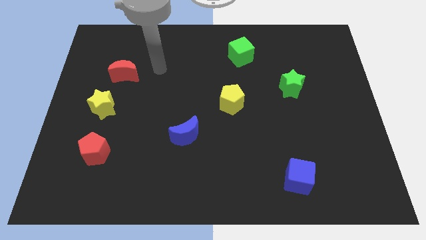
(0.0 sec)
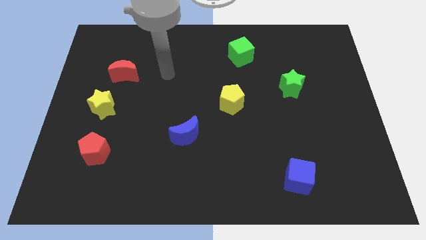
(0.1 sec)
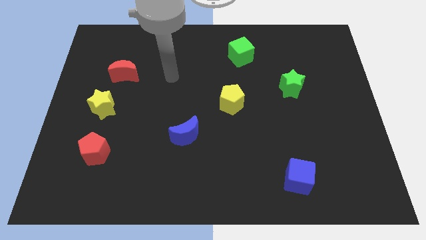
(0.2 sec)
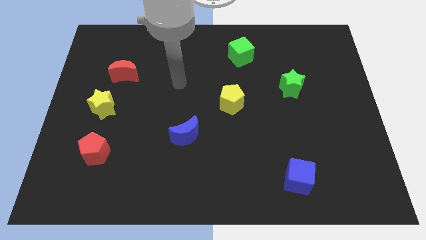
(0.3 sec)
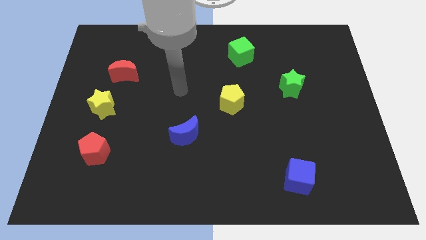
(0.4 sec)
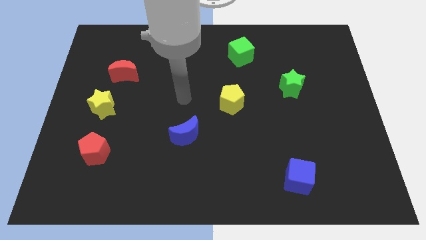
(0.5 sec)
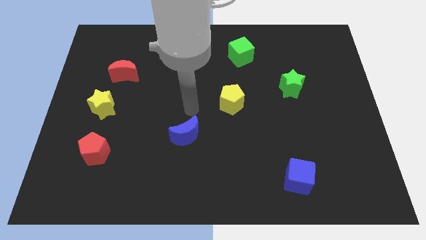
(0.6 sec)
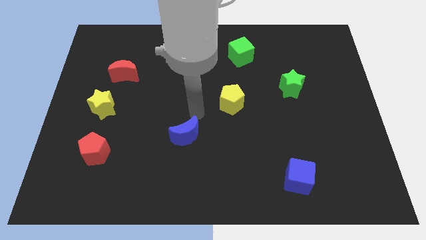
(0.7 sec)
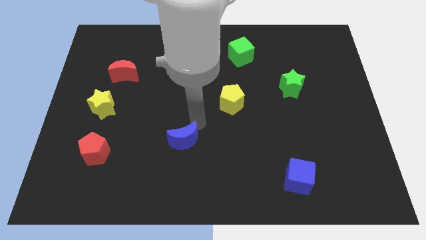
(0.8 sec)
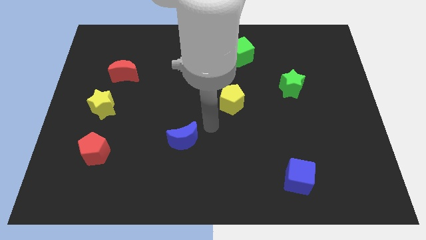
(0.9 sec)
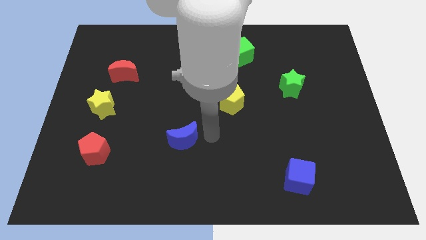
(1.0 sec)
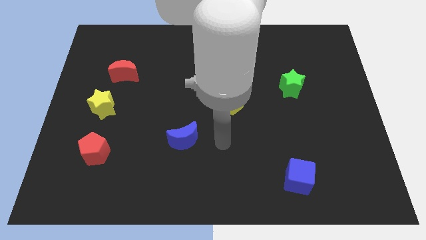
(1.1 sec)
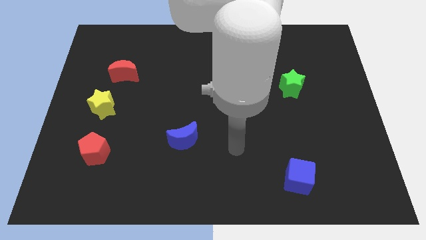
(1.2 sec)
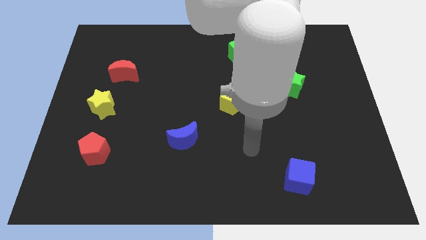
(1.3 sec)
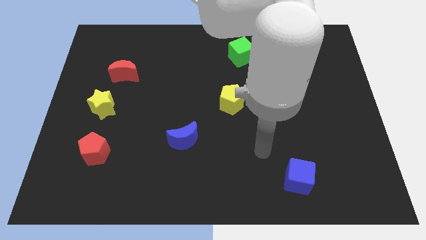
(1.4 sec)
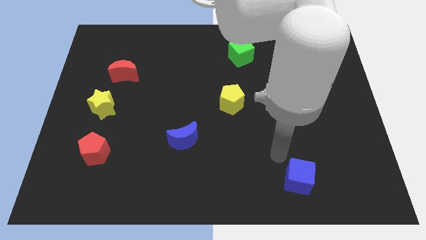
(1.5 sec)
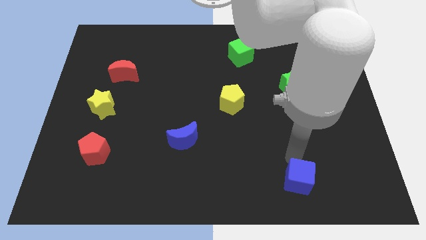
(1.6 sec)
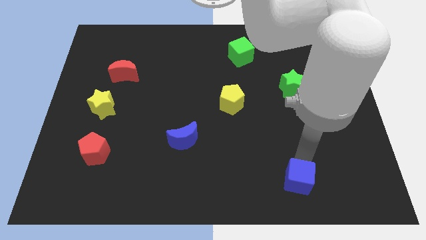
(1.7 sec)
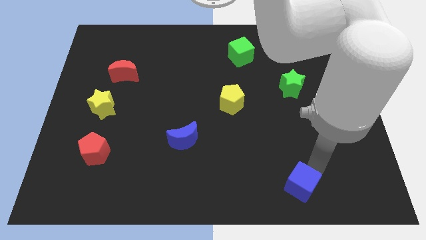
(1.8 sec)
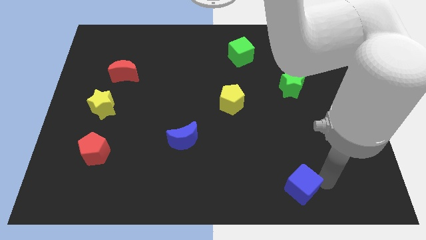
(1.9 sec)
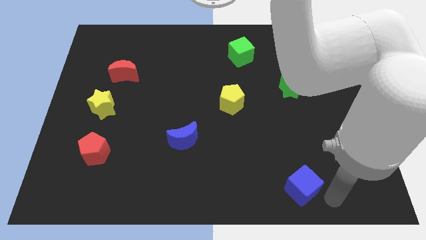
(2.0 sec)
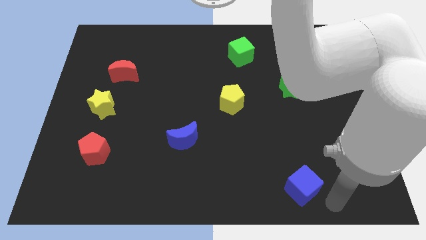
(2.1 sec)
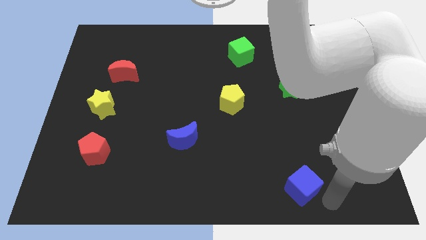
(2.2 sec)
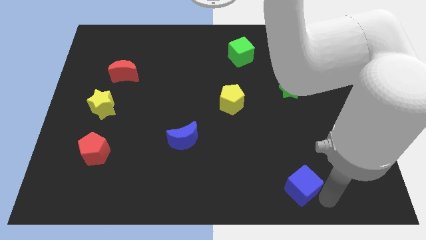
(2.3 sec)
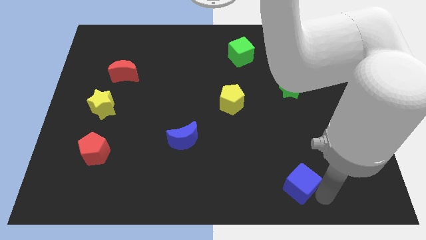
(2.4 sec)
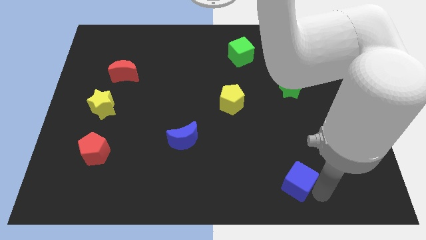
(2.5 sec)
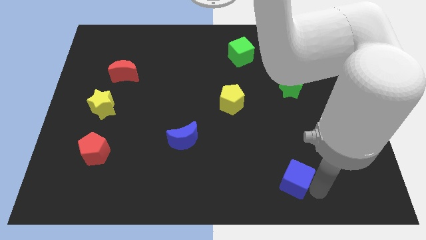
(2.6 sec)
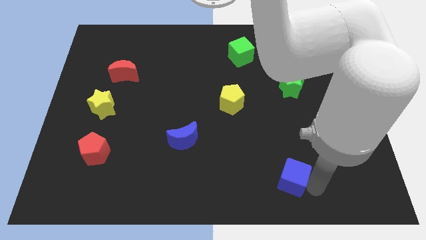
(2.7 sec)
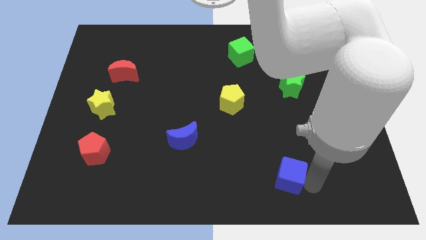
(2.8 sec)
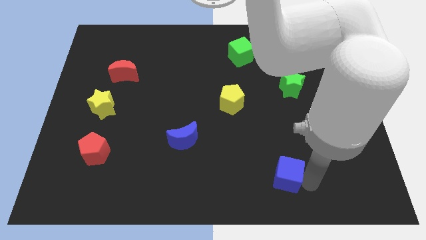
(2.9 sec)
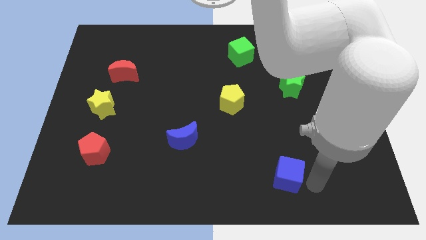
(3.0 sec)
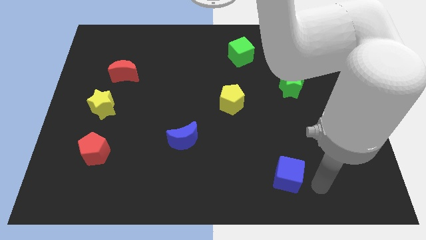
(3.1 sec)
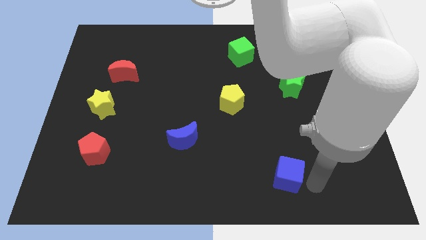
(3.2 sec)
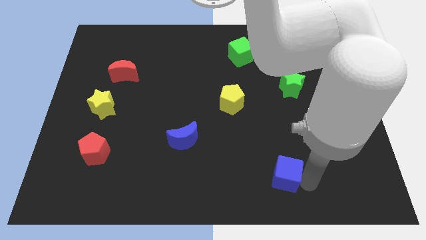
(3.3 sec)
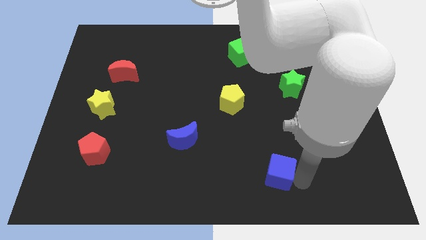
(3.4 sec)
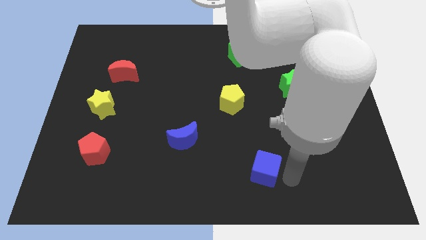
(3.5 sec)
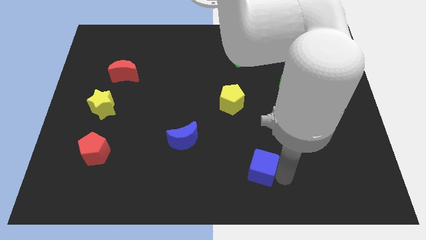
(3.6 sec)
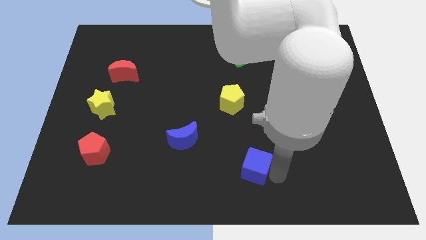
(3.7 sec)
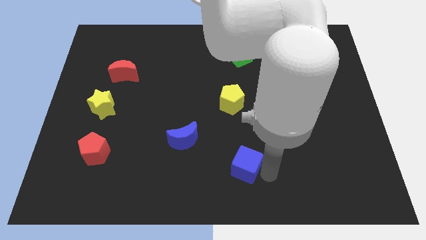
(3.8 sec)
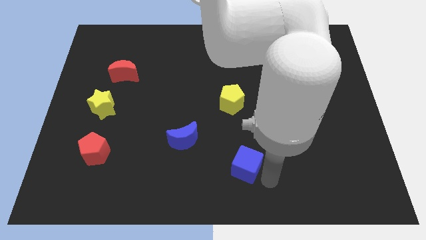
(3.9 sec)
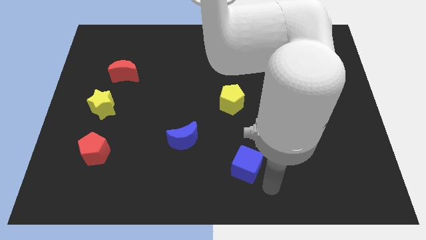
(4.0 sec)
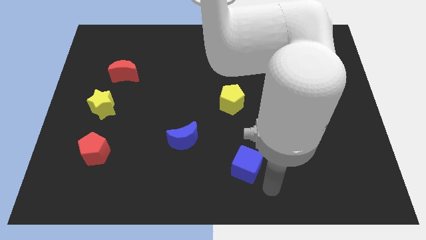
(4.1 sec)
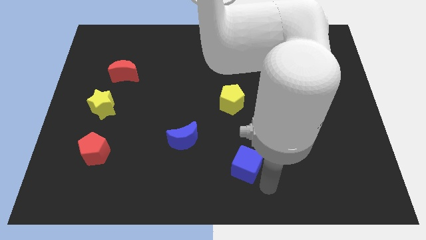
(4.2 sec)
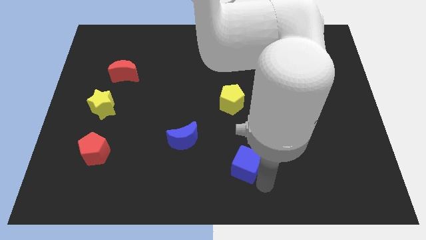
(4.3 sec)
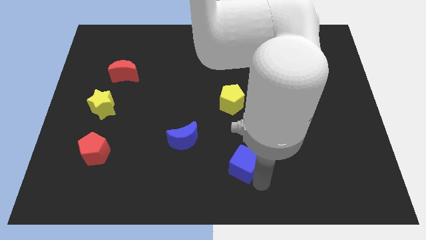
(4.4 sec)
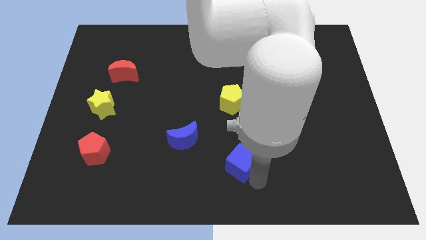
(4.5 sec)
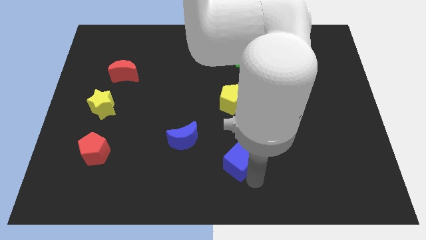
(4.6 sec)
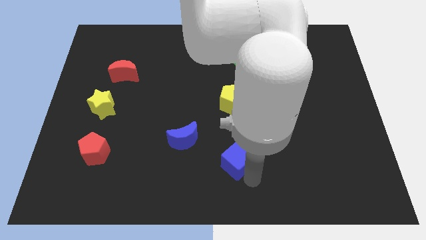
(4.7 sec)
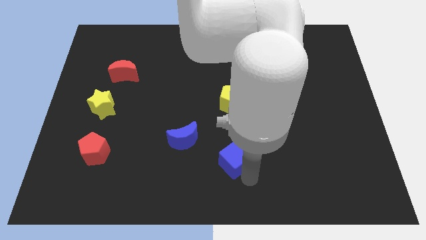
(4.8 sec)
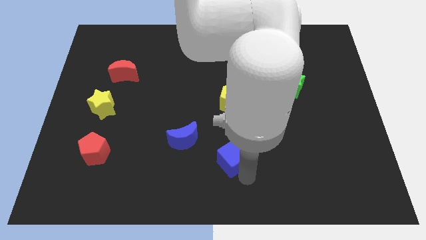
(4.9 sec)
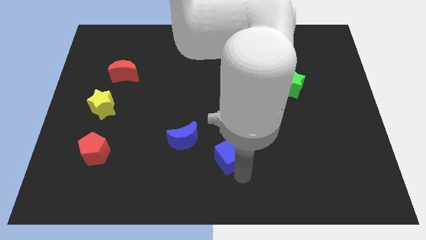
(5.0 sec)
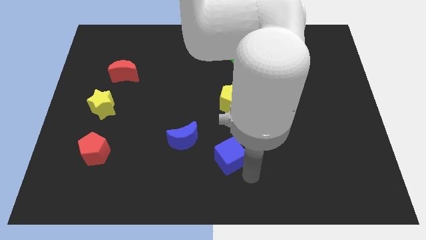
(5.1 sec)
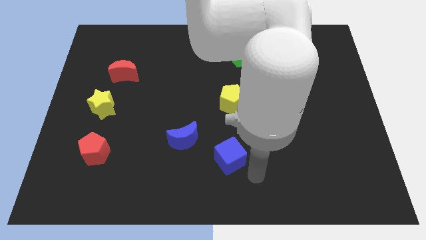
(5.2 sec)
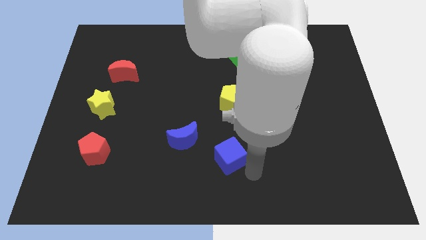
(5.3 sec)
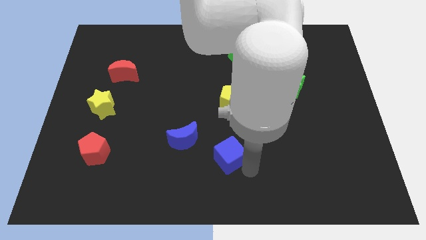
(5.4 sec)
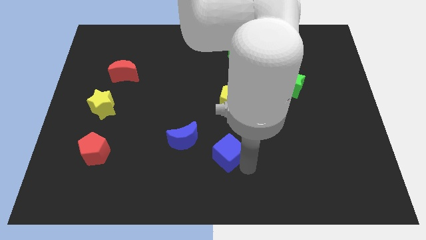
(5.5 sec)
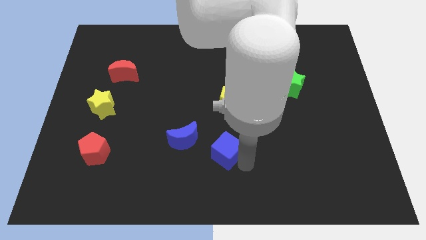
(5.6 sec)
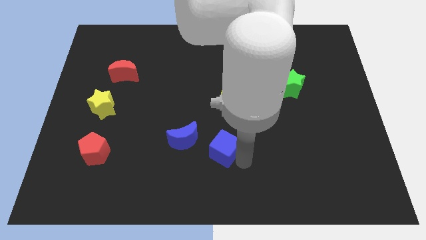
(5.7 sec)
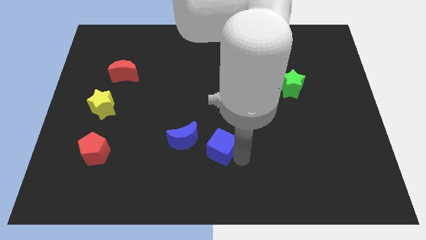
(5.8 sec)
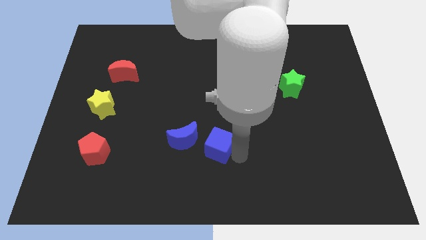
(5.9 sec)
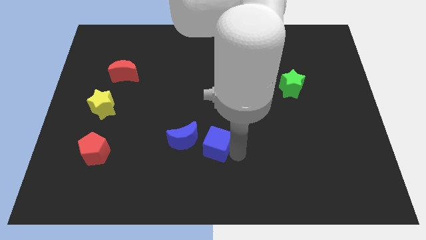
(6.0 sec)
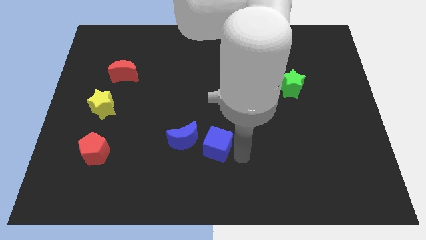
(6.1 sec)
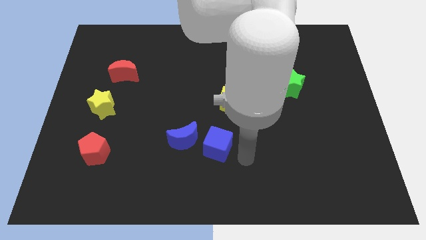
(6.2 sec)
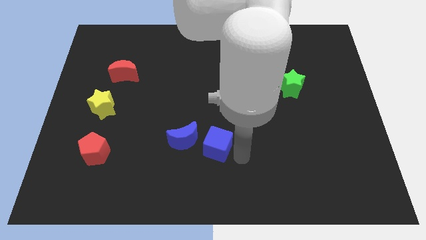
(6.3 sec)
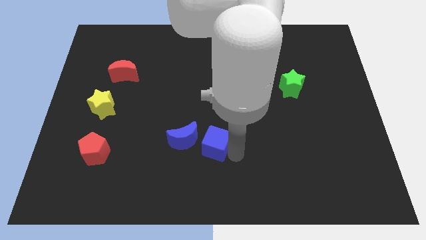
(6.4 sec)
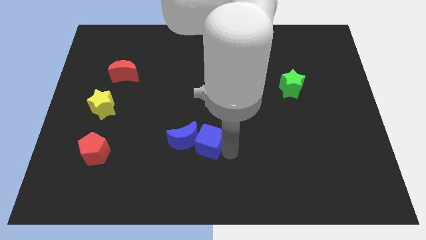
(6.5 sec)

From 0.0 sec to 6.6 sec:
move the blue cube towards the blue moon

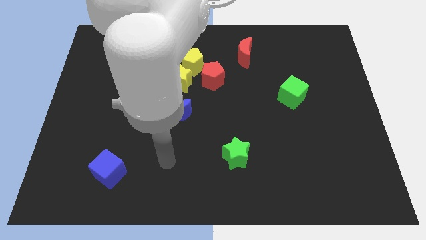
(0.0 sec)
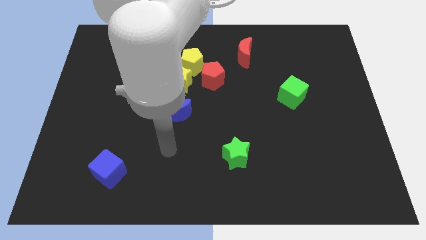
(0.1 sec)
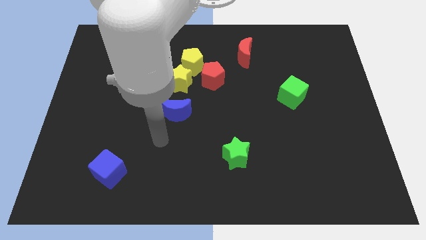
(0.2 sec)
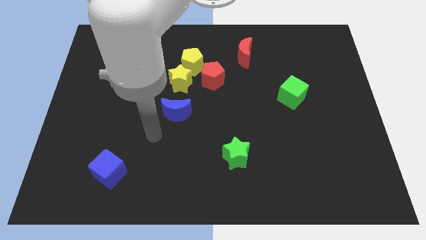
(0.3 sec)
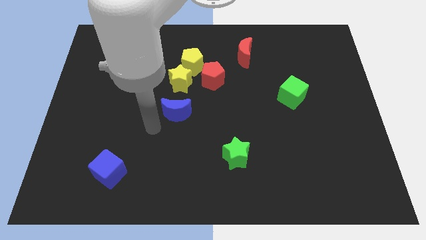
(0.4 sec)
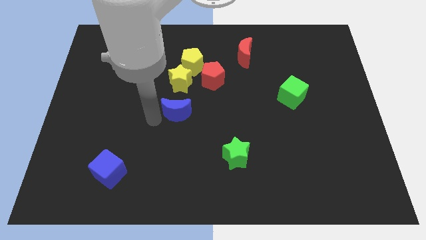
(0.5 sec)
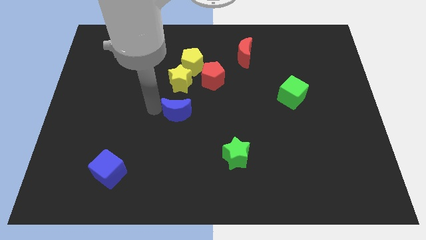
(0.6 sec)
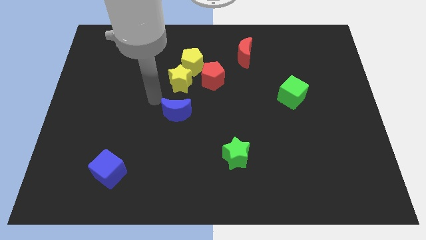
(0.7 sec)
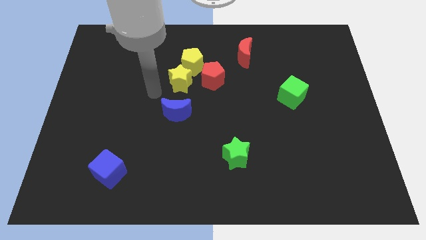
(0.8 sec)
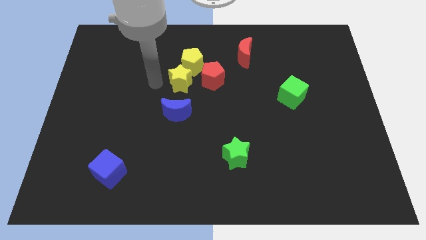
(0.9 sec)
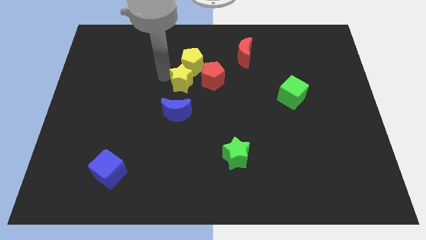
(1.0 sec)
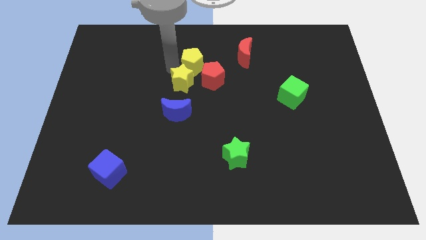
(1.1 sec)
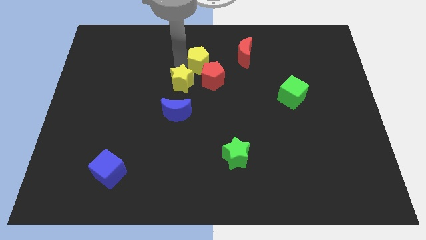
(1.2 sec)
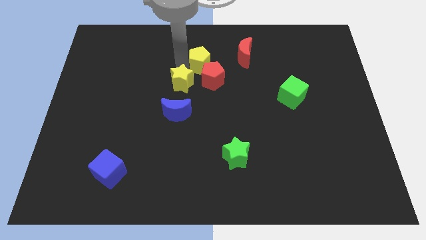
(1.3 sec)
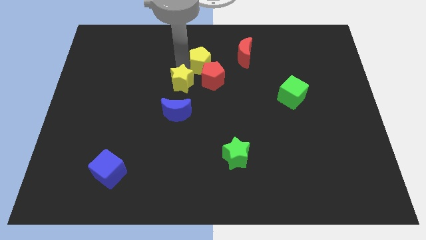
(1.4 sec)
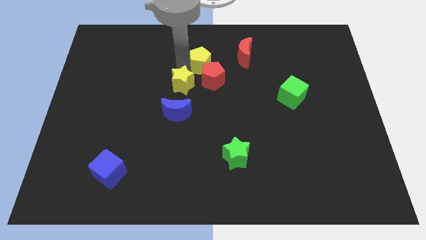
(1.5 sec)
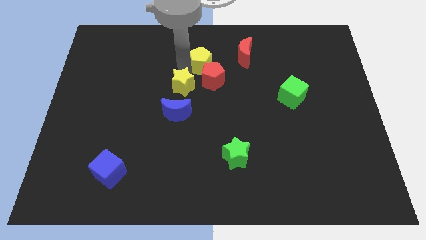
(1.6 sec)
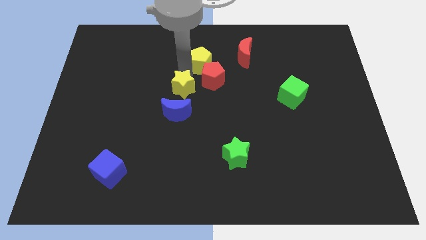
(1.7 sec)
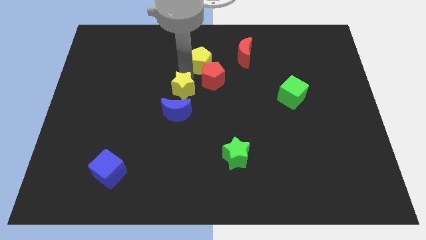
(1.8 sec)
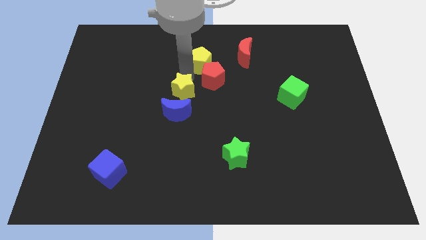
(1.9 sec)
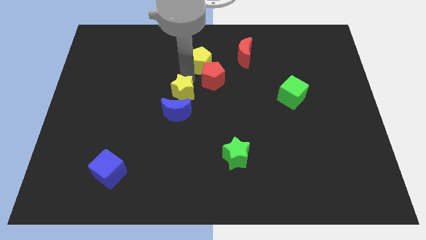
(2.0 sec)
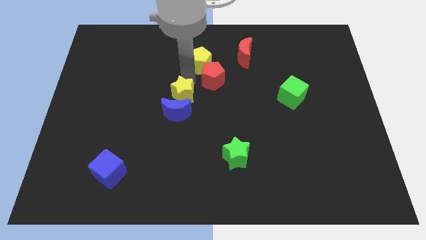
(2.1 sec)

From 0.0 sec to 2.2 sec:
put the yellow star towards the blue moon
